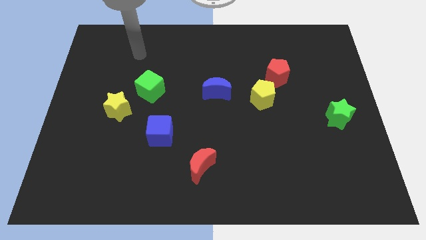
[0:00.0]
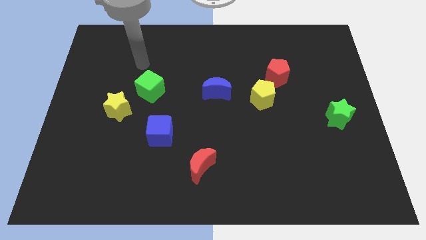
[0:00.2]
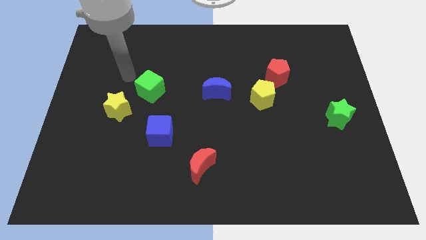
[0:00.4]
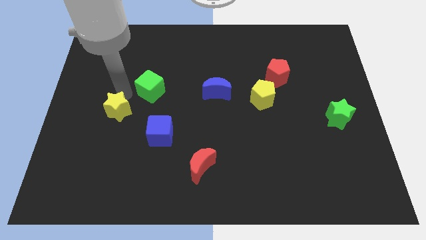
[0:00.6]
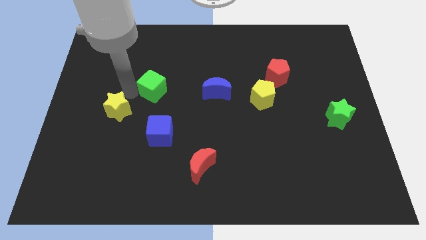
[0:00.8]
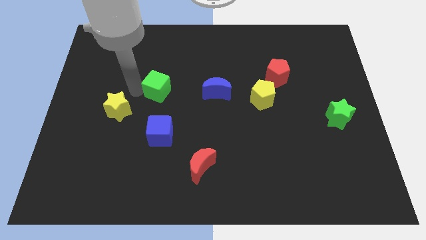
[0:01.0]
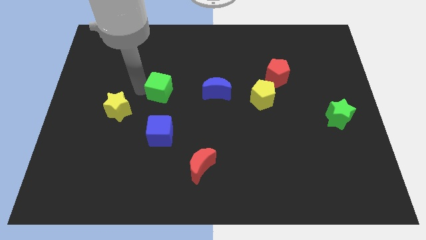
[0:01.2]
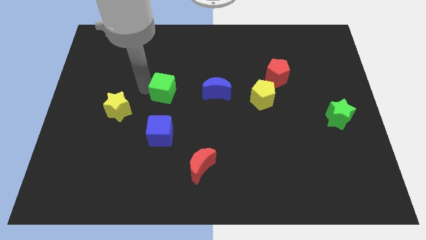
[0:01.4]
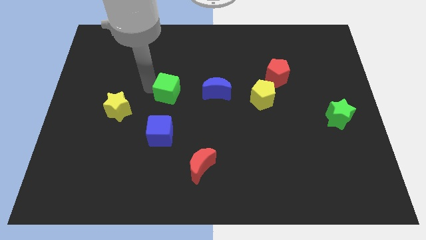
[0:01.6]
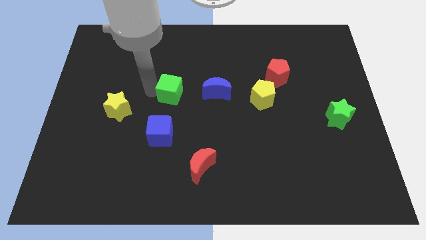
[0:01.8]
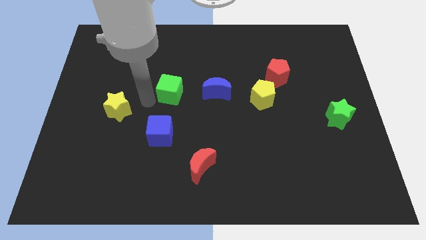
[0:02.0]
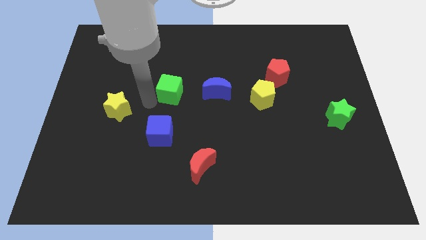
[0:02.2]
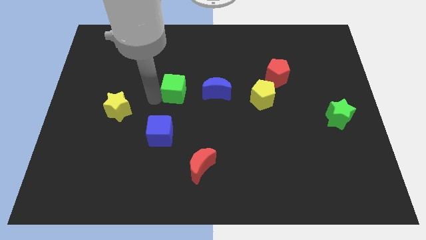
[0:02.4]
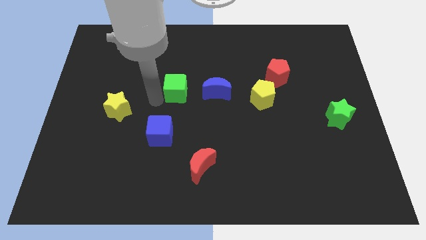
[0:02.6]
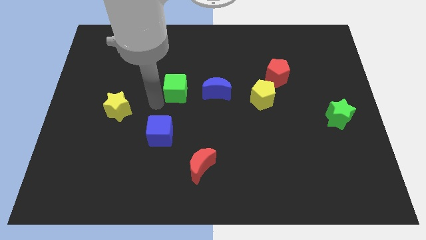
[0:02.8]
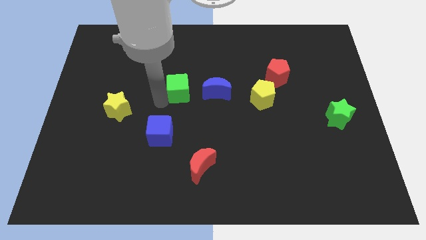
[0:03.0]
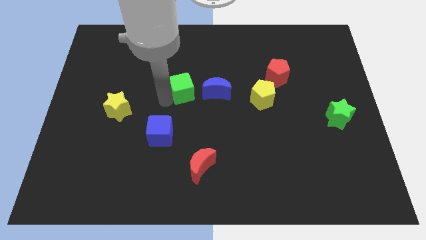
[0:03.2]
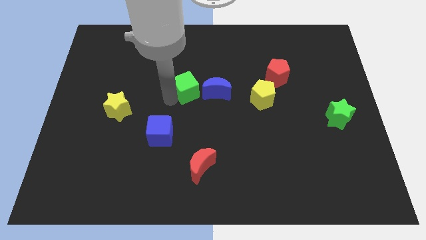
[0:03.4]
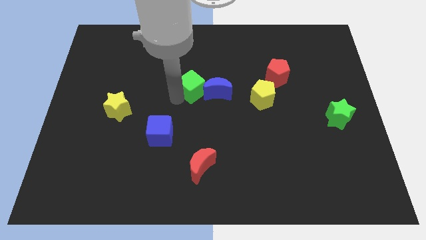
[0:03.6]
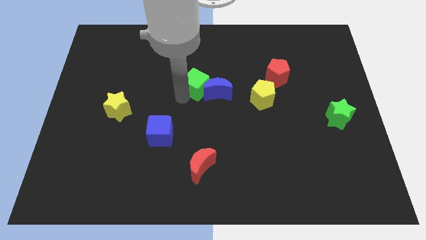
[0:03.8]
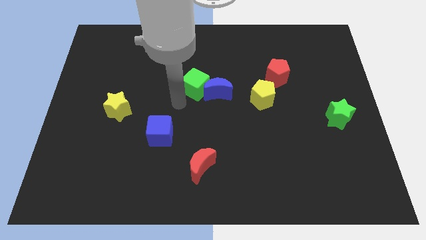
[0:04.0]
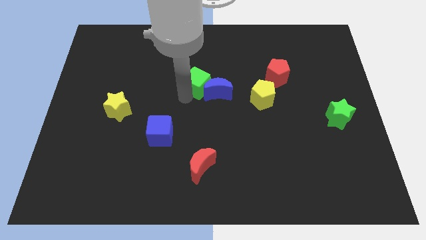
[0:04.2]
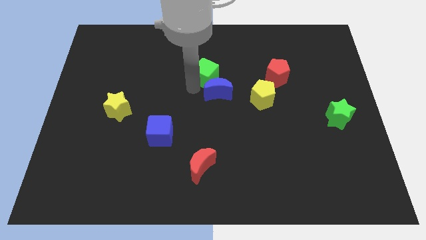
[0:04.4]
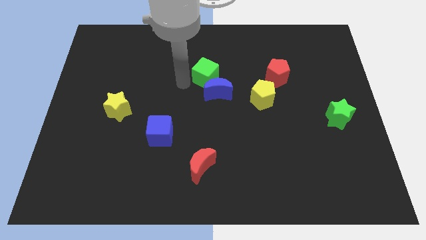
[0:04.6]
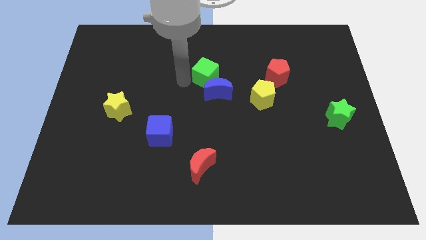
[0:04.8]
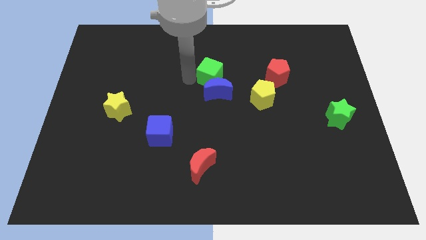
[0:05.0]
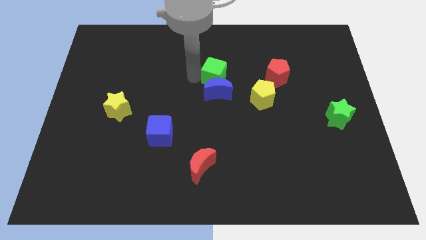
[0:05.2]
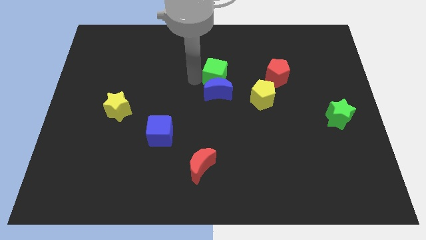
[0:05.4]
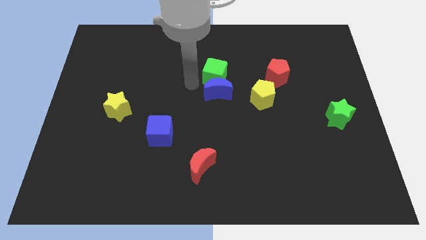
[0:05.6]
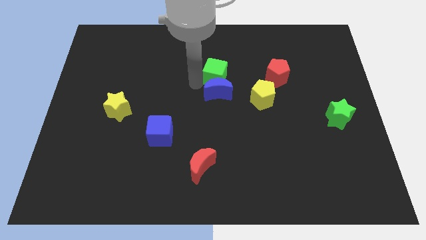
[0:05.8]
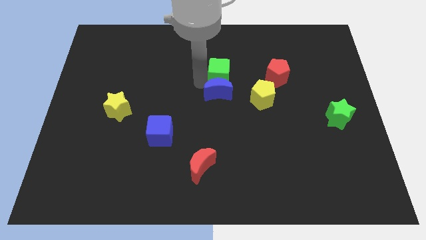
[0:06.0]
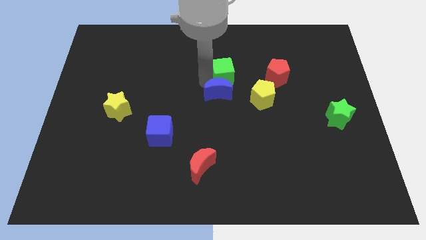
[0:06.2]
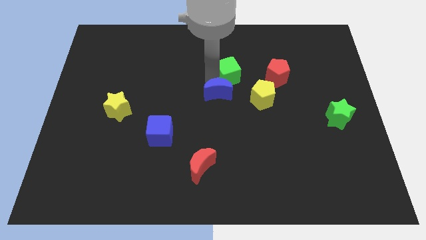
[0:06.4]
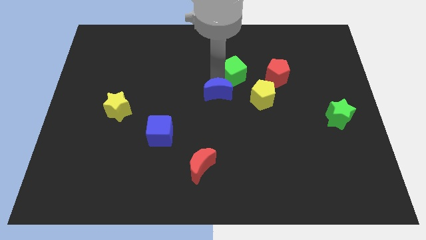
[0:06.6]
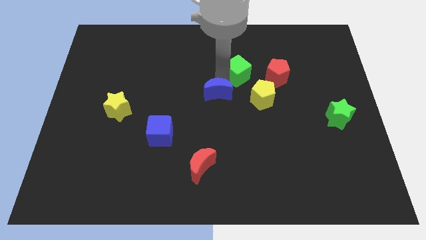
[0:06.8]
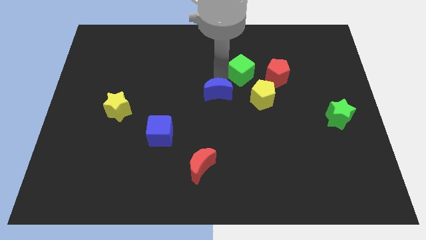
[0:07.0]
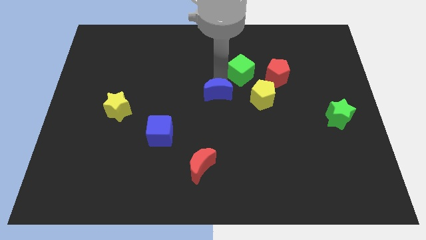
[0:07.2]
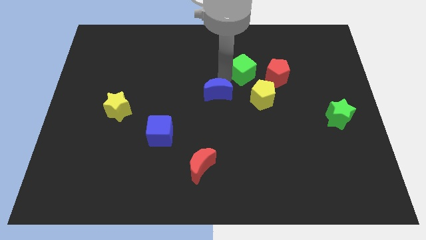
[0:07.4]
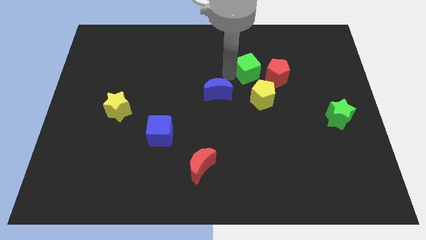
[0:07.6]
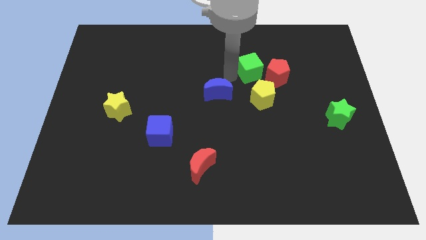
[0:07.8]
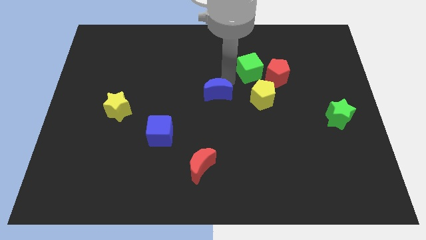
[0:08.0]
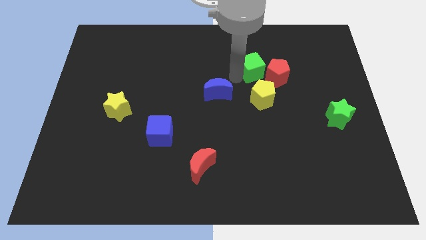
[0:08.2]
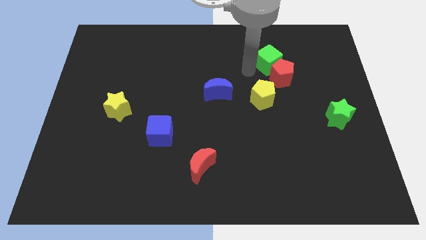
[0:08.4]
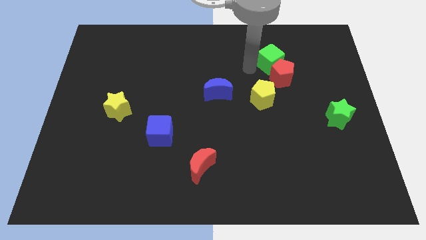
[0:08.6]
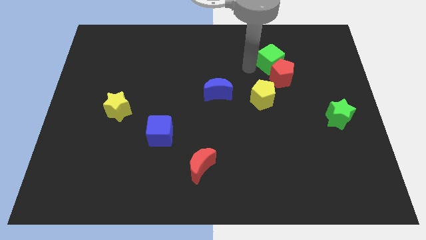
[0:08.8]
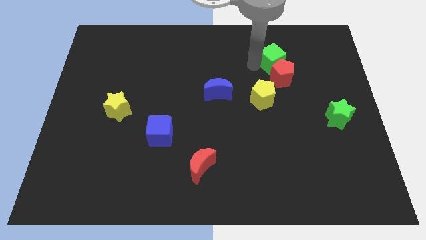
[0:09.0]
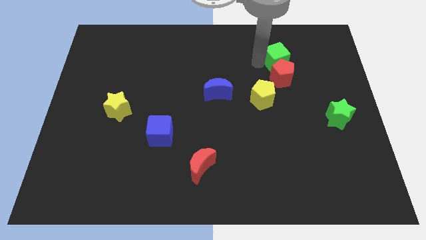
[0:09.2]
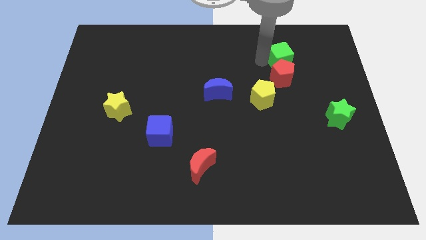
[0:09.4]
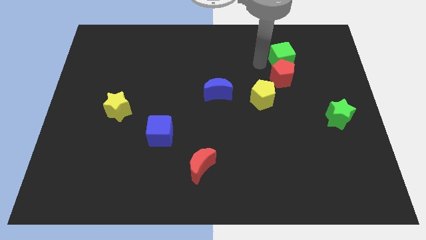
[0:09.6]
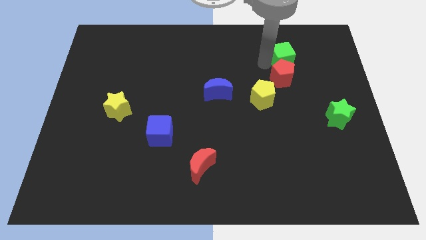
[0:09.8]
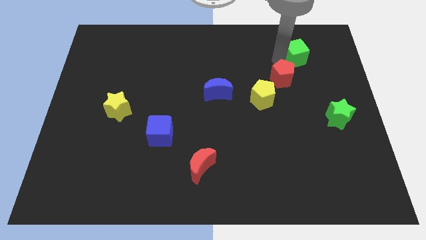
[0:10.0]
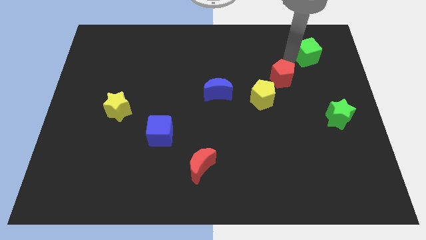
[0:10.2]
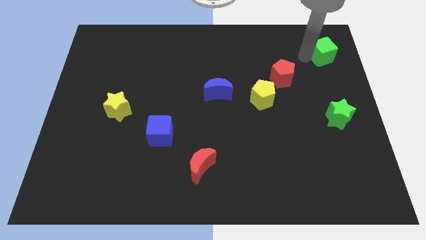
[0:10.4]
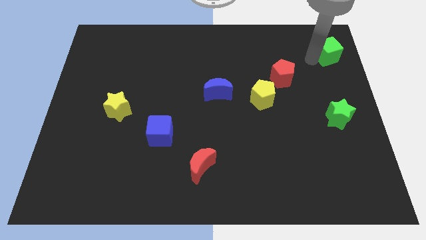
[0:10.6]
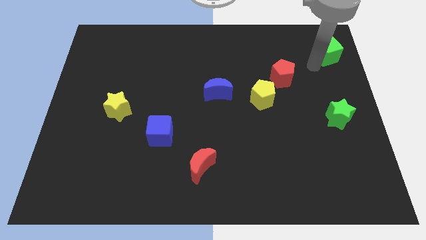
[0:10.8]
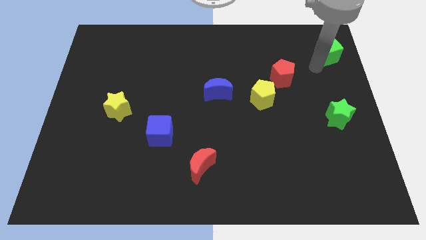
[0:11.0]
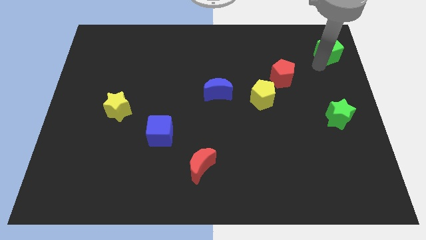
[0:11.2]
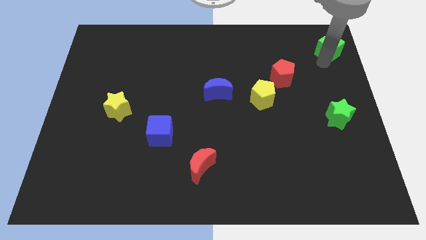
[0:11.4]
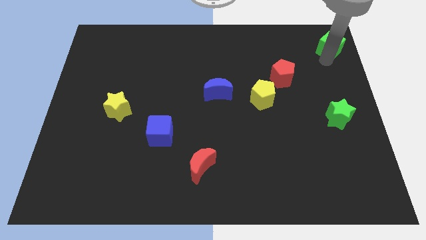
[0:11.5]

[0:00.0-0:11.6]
put the green cube to the top right
